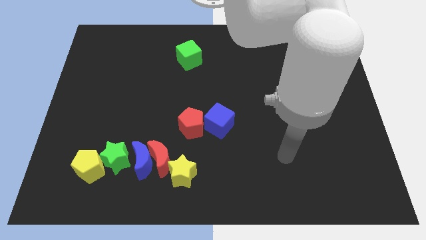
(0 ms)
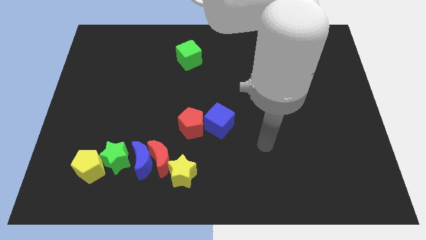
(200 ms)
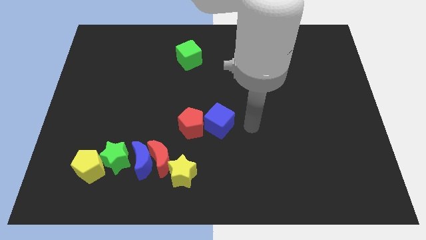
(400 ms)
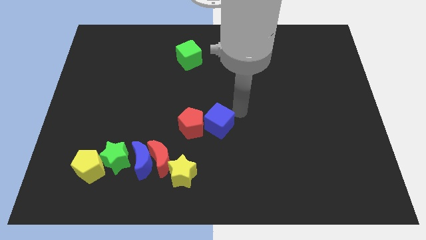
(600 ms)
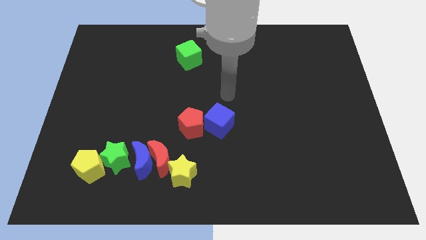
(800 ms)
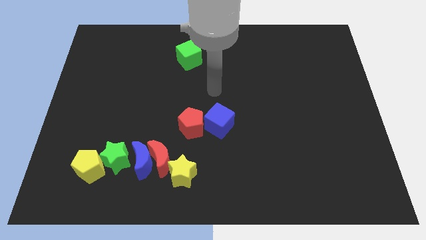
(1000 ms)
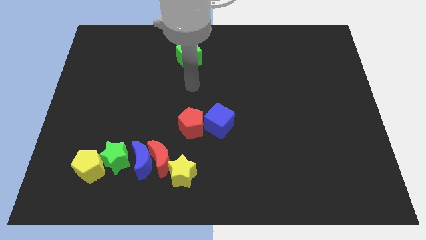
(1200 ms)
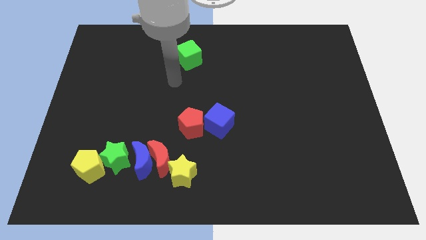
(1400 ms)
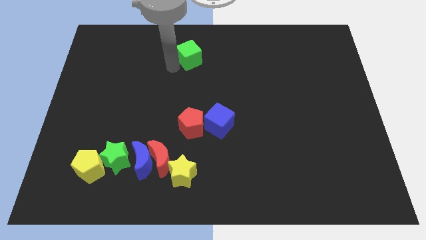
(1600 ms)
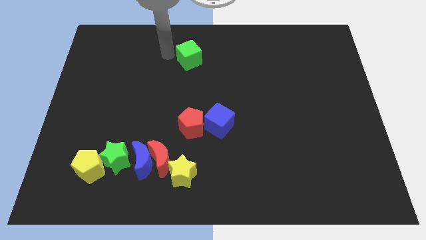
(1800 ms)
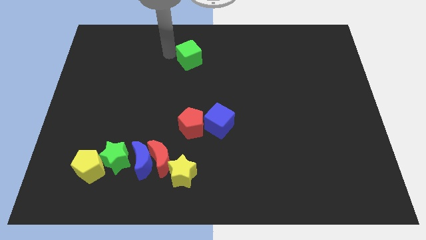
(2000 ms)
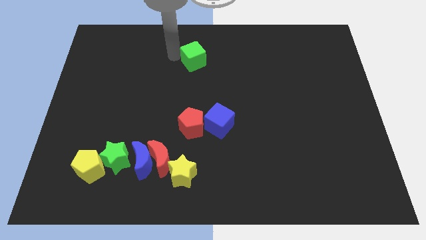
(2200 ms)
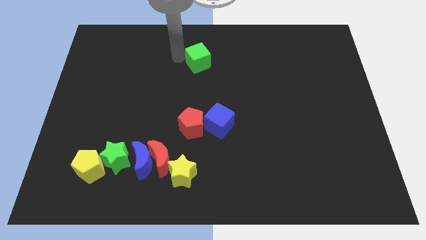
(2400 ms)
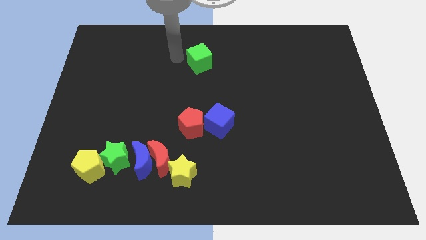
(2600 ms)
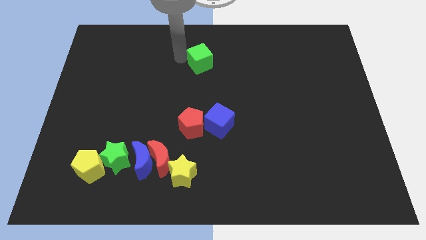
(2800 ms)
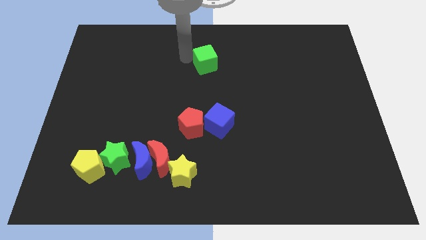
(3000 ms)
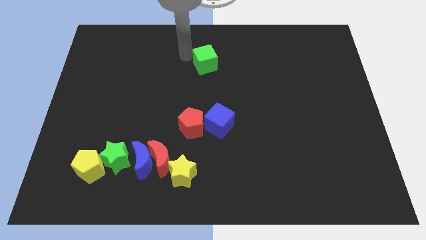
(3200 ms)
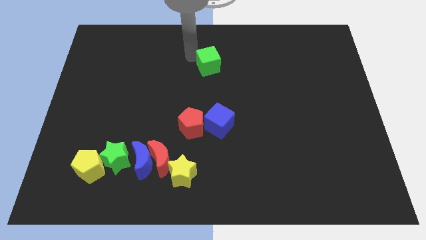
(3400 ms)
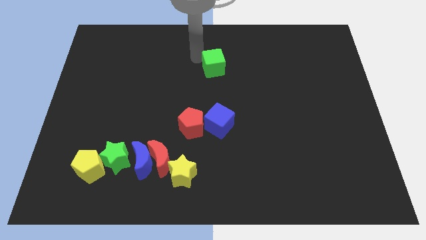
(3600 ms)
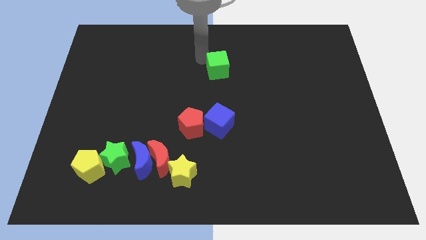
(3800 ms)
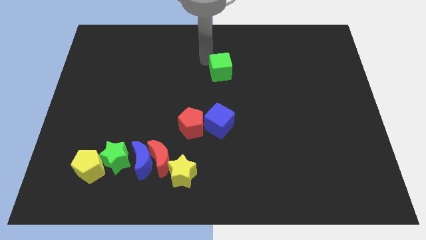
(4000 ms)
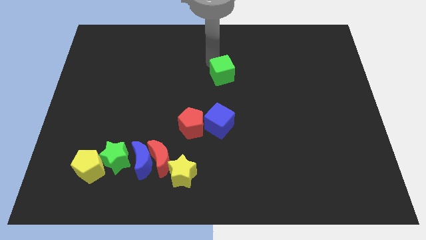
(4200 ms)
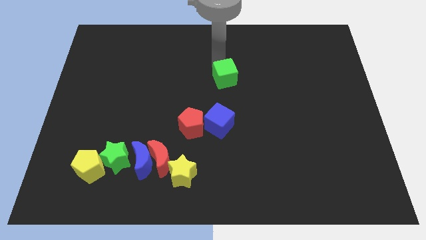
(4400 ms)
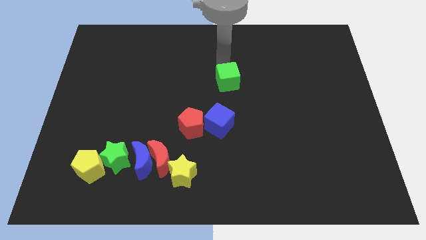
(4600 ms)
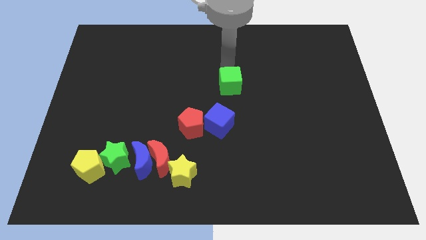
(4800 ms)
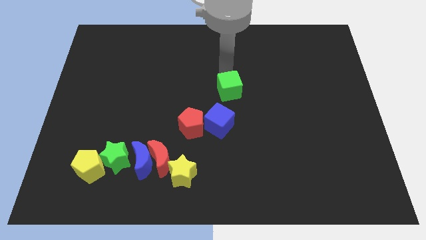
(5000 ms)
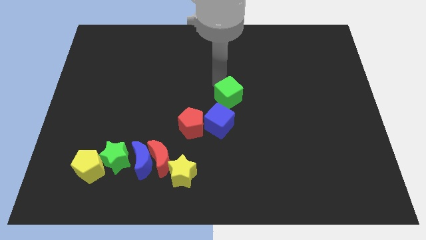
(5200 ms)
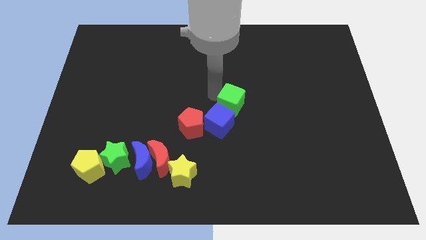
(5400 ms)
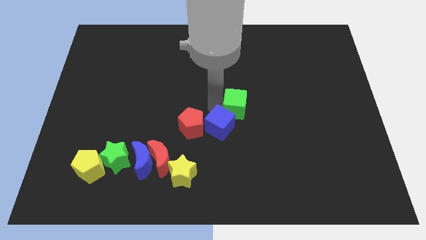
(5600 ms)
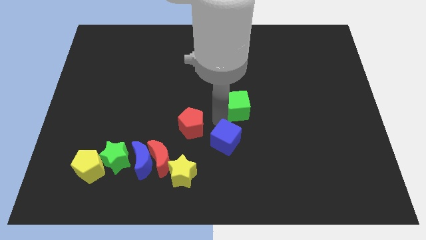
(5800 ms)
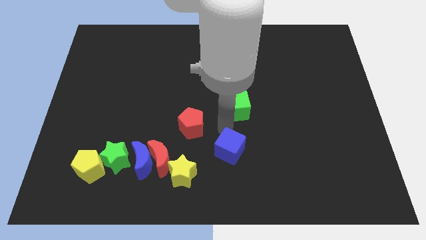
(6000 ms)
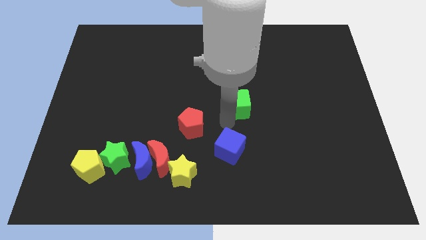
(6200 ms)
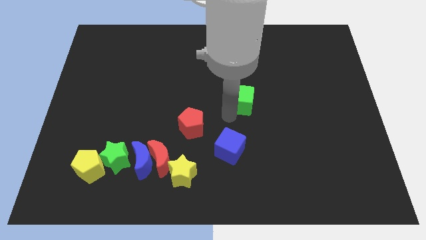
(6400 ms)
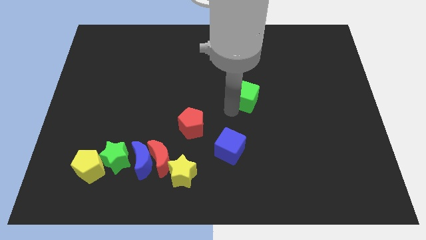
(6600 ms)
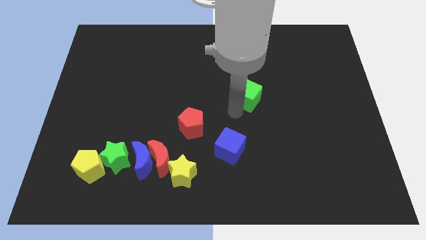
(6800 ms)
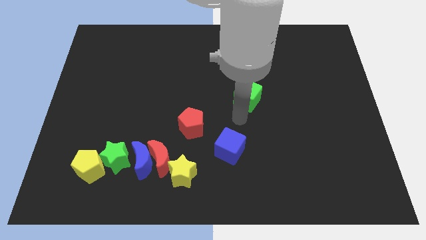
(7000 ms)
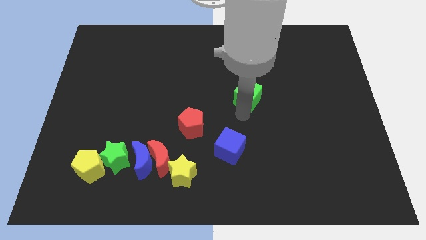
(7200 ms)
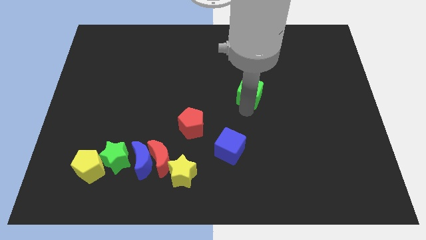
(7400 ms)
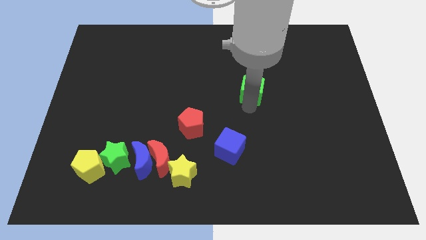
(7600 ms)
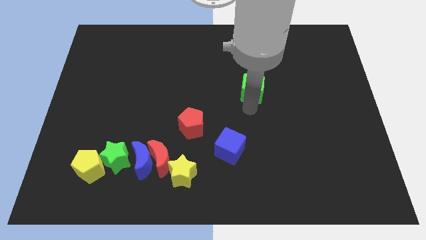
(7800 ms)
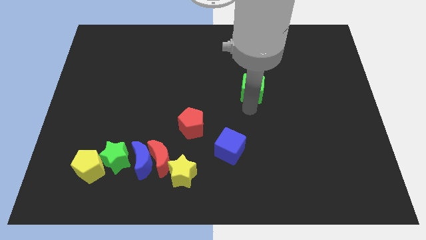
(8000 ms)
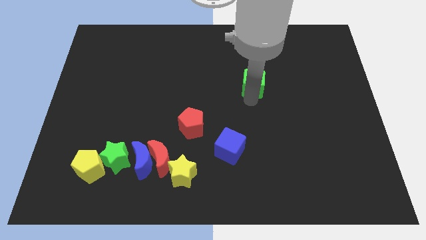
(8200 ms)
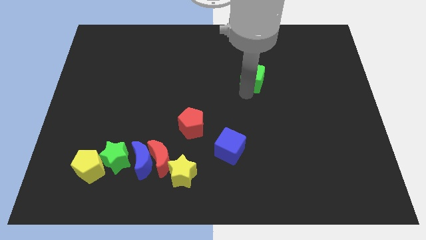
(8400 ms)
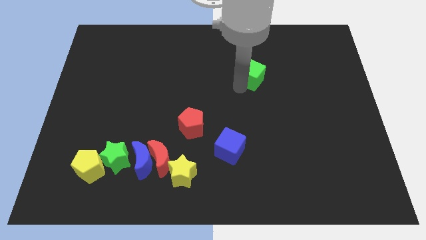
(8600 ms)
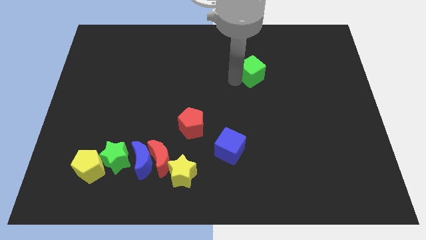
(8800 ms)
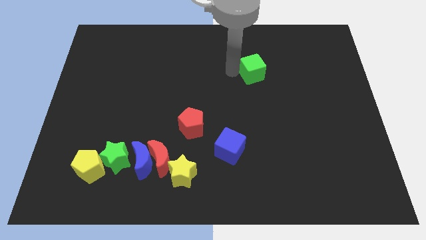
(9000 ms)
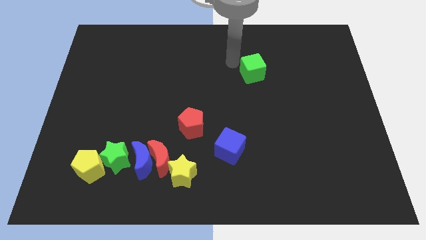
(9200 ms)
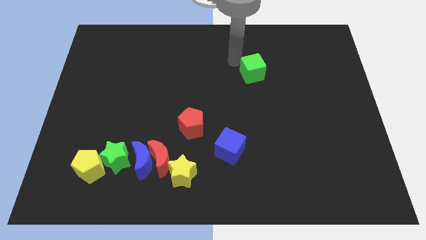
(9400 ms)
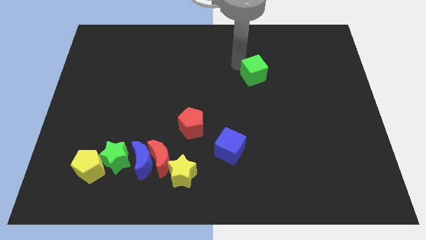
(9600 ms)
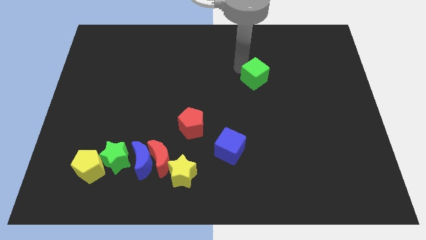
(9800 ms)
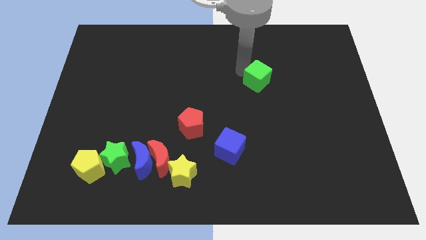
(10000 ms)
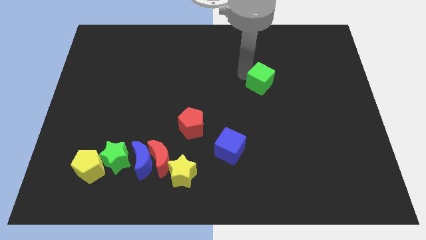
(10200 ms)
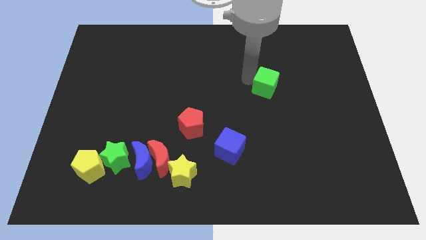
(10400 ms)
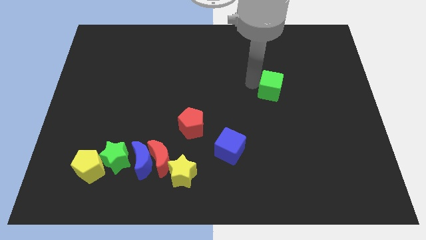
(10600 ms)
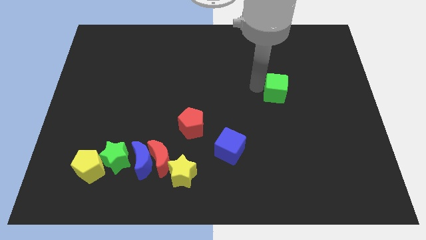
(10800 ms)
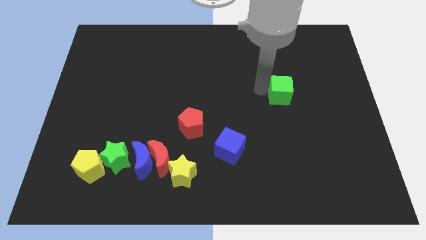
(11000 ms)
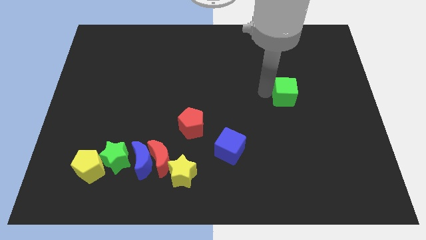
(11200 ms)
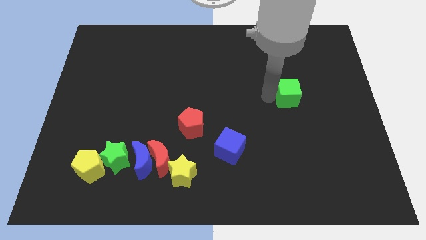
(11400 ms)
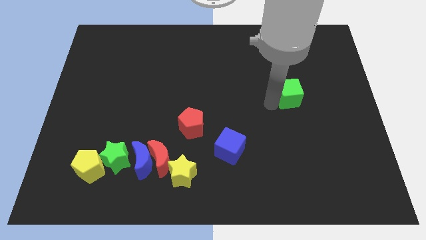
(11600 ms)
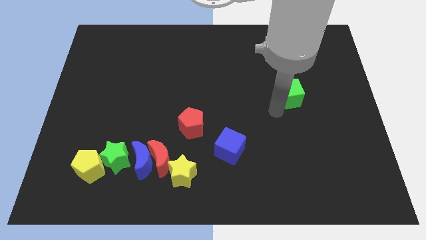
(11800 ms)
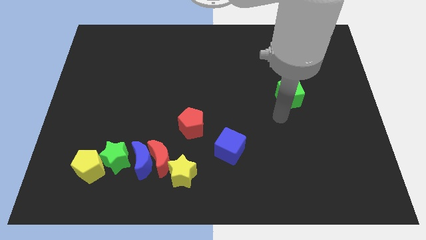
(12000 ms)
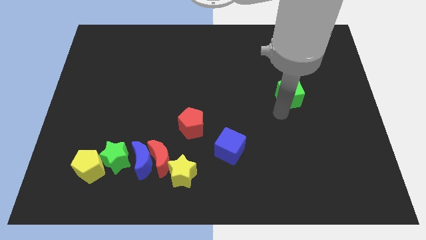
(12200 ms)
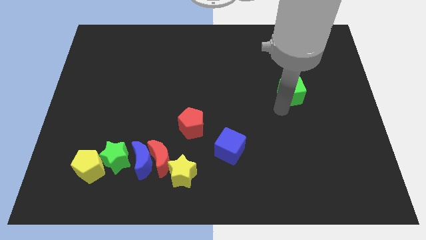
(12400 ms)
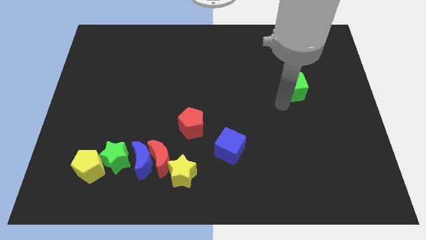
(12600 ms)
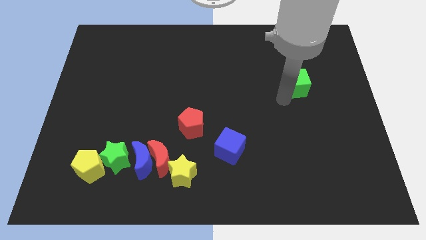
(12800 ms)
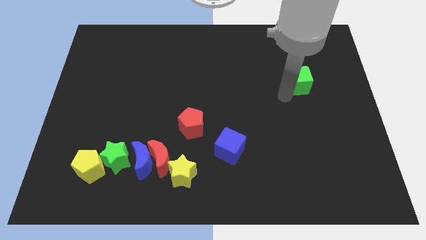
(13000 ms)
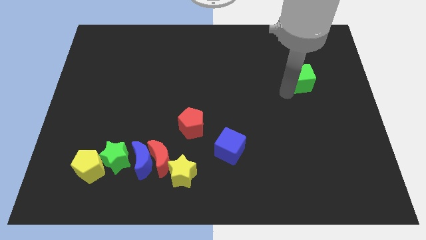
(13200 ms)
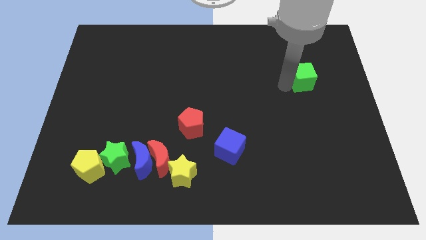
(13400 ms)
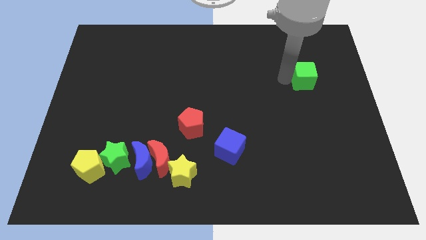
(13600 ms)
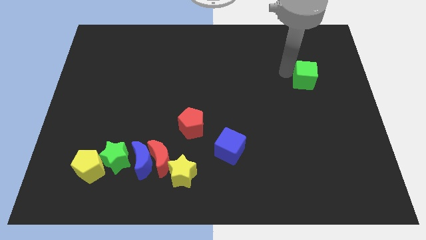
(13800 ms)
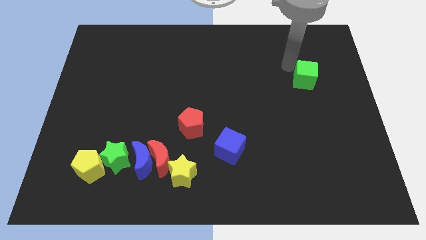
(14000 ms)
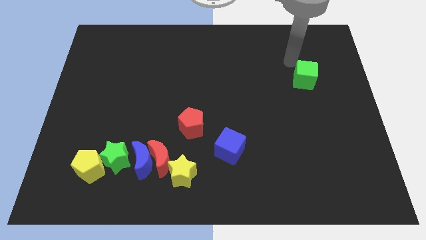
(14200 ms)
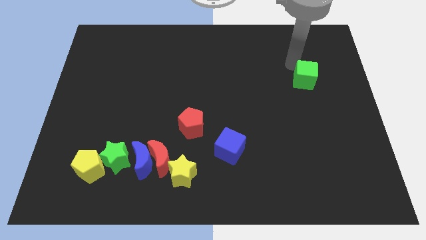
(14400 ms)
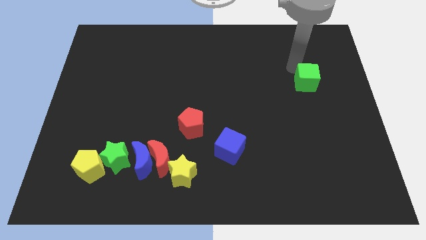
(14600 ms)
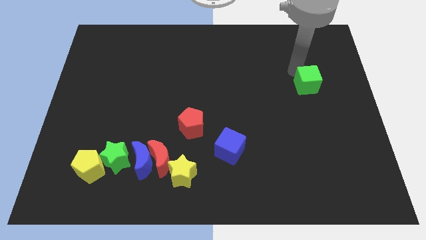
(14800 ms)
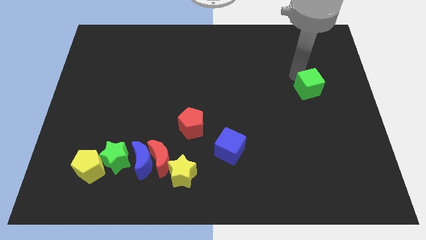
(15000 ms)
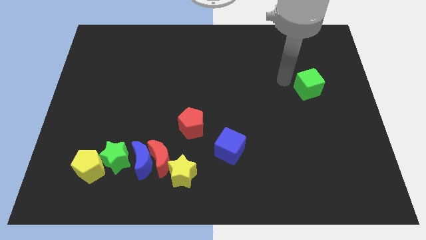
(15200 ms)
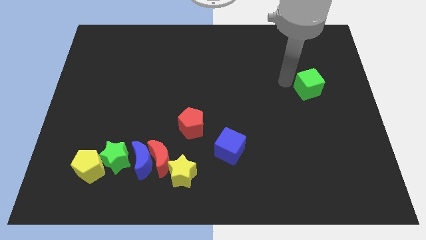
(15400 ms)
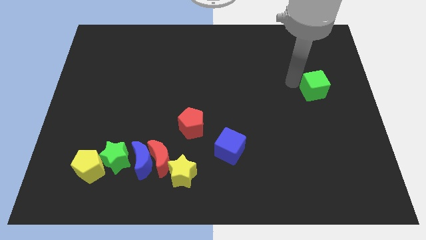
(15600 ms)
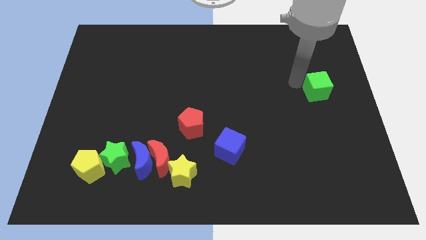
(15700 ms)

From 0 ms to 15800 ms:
slide the green cube to the right side of the board
